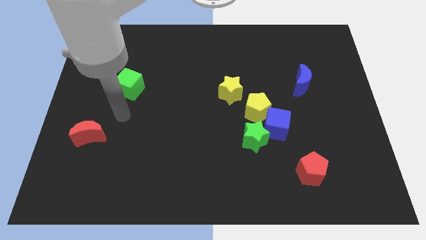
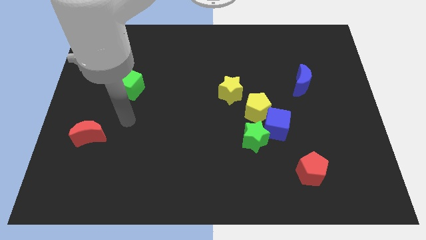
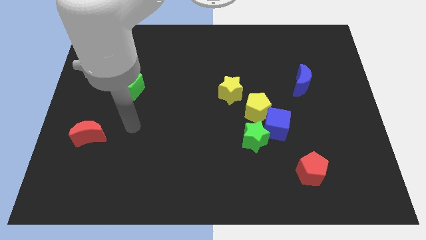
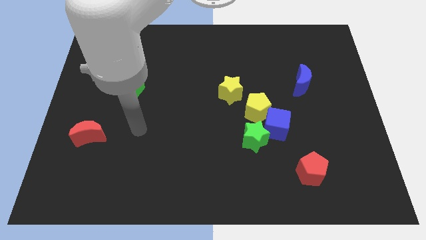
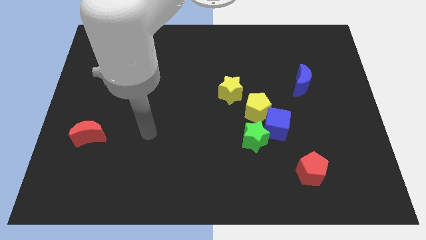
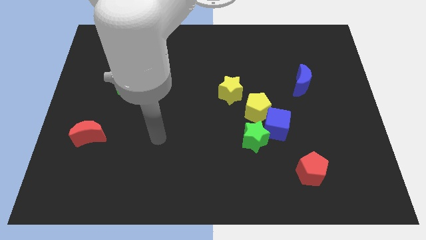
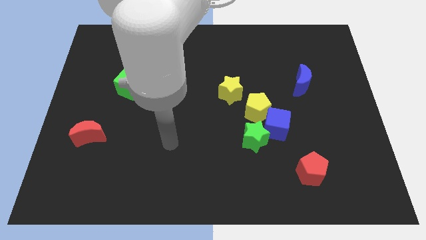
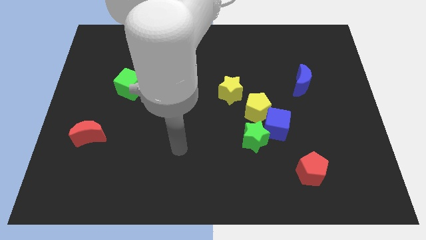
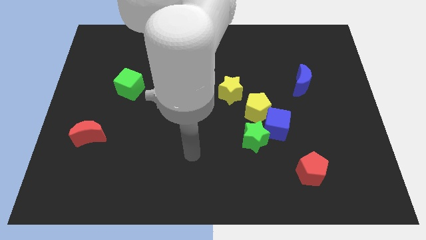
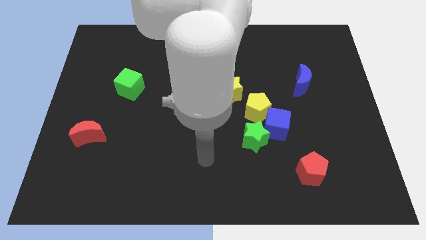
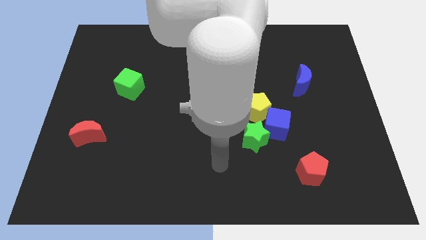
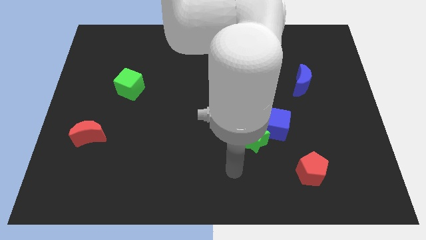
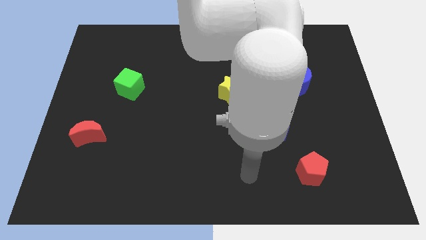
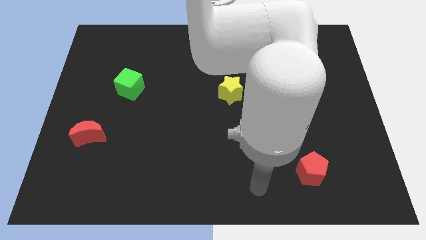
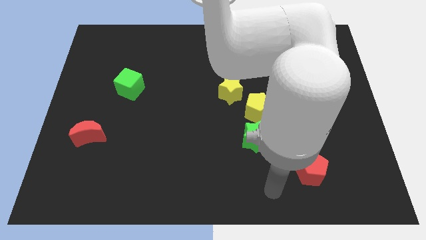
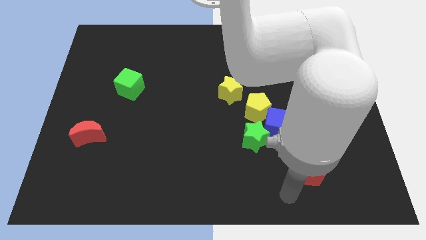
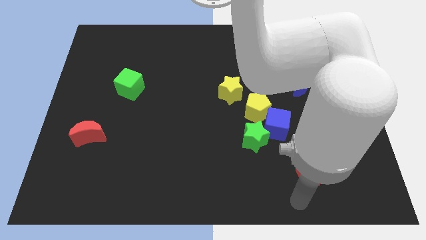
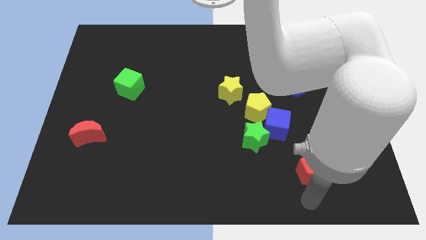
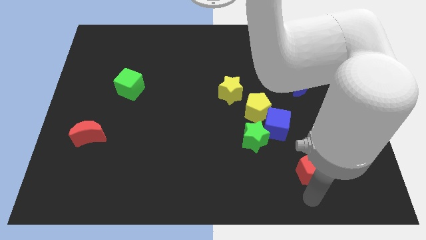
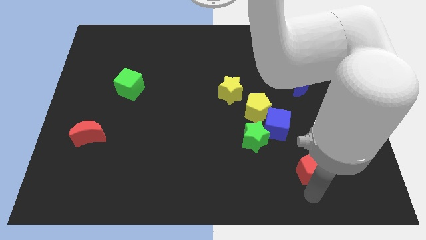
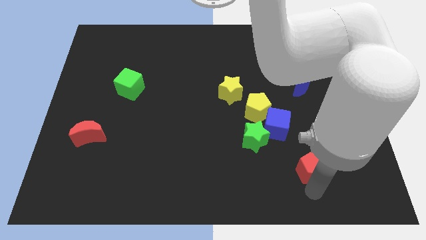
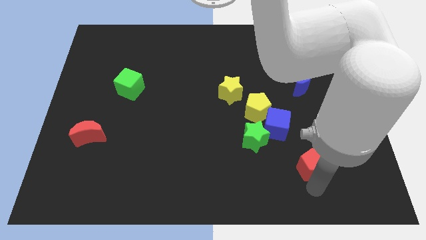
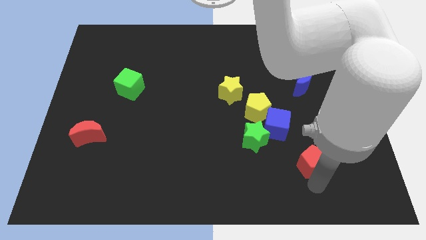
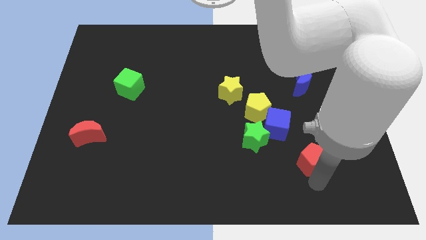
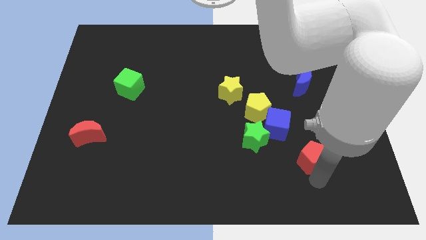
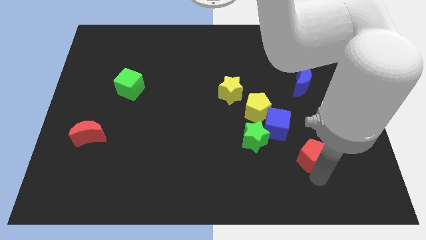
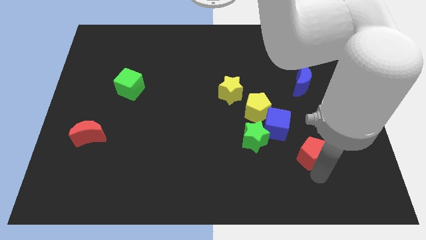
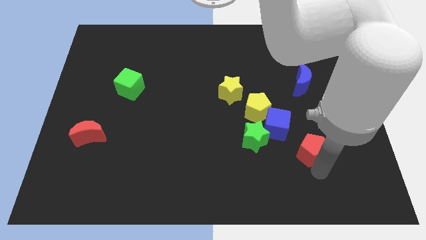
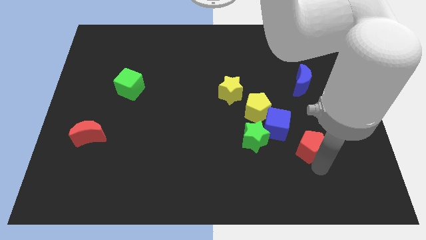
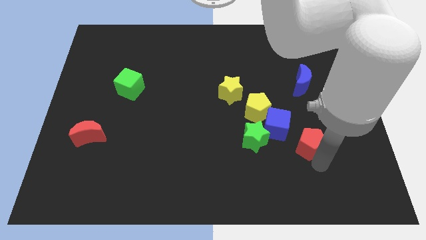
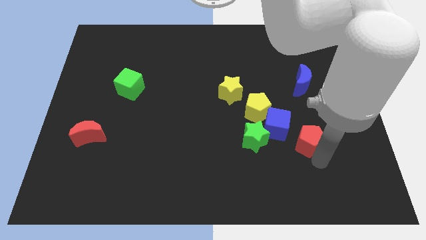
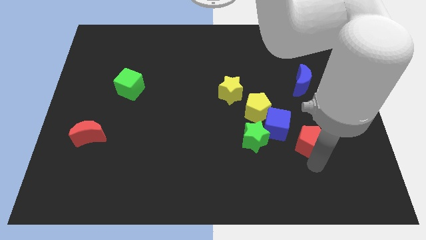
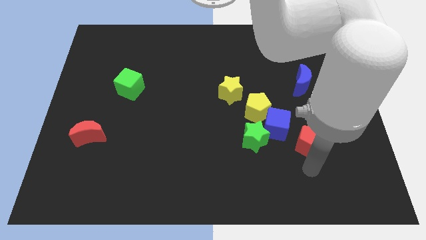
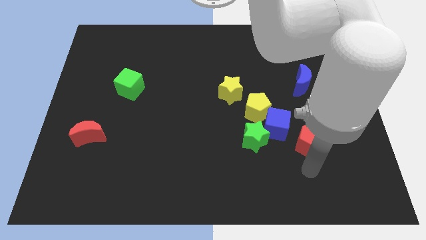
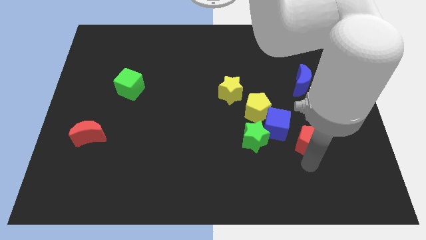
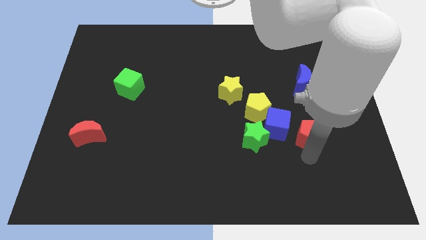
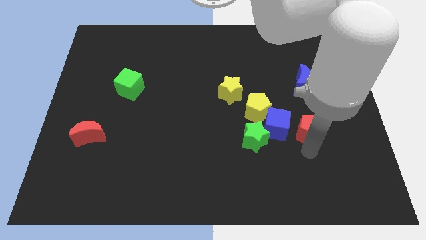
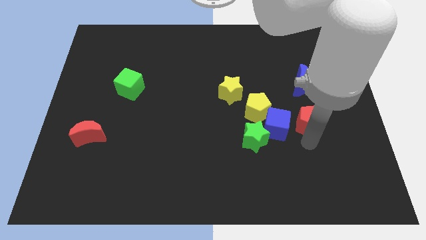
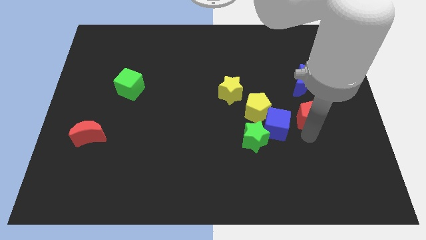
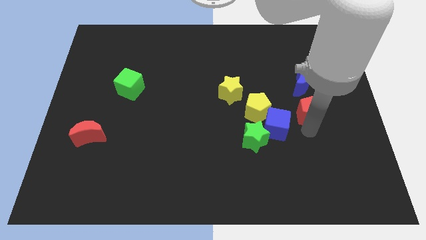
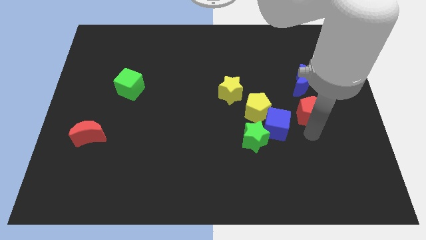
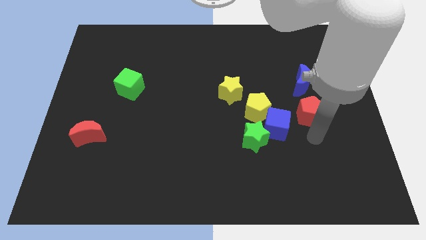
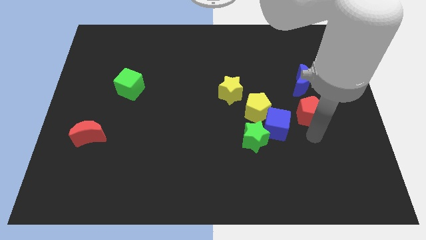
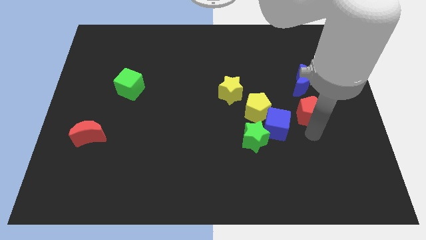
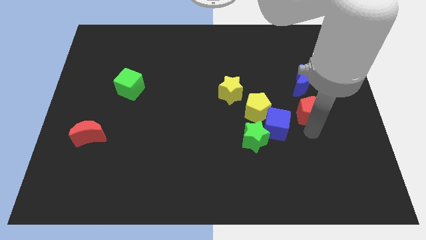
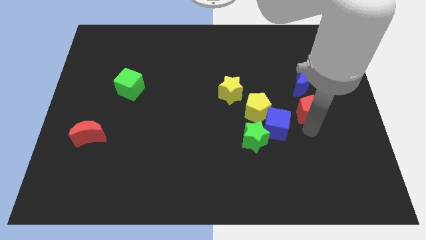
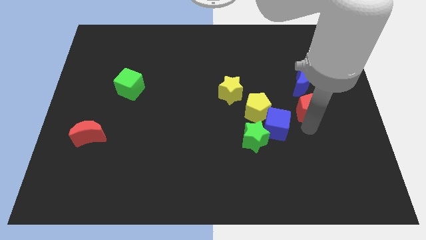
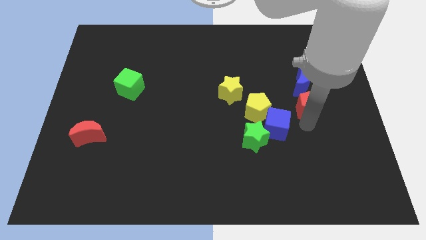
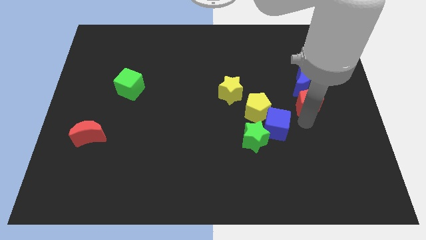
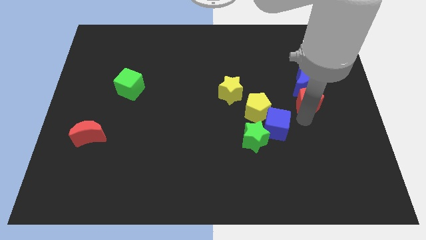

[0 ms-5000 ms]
slide the red pentagon to the blue moon

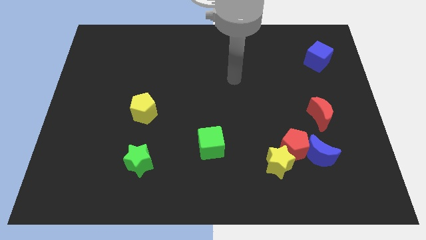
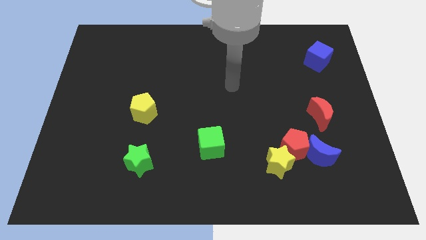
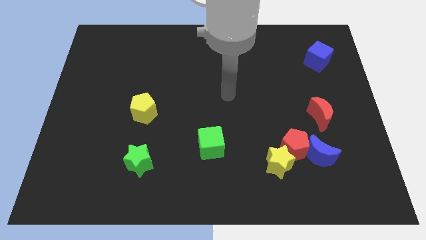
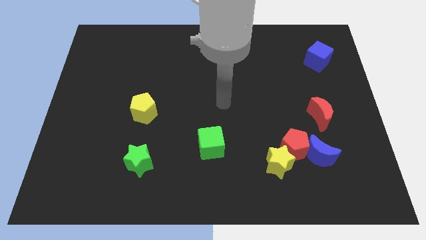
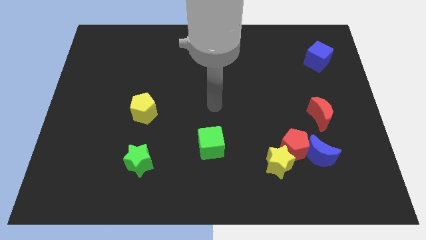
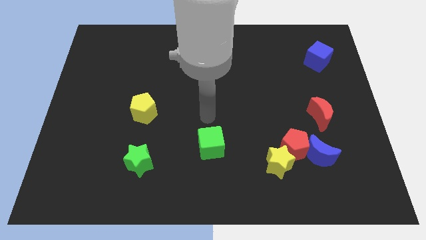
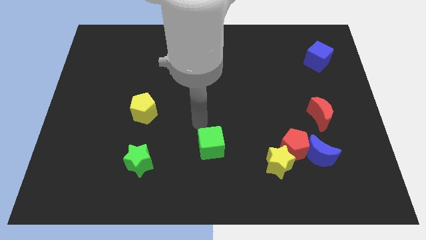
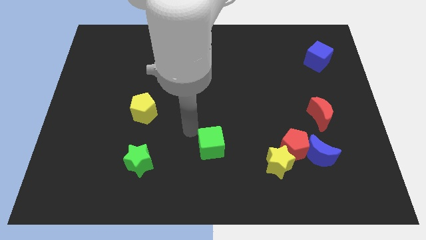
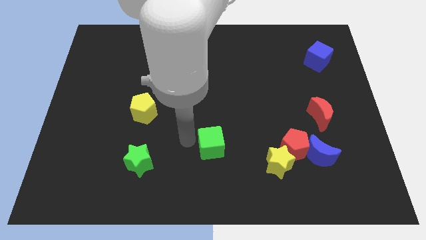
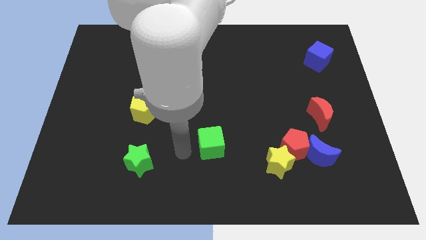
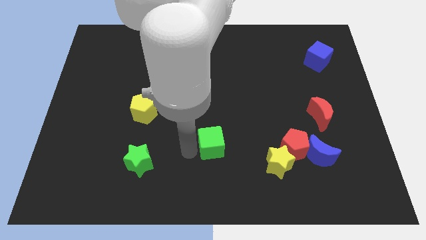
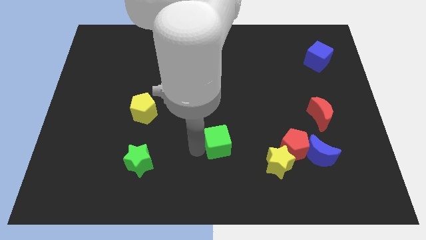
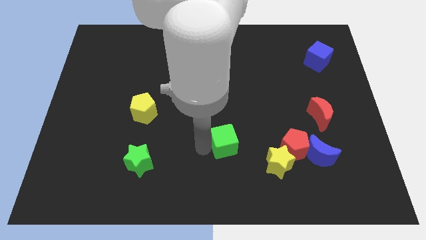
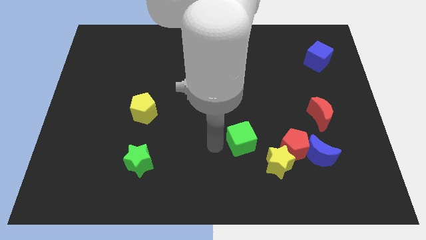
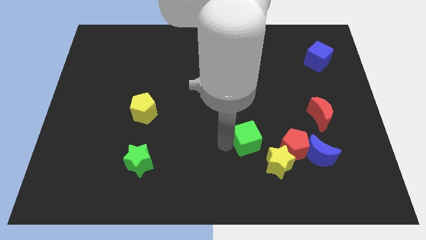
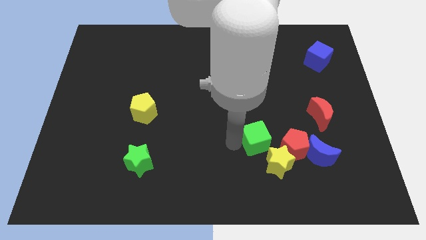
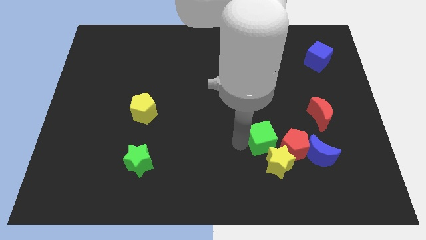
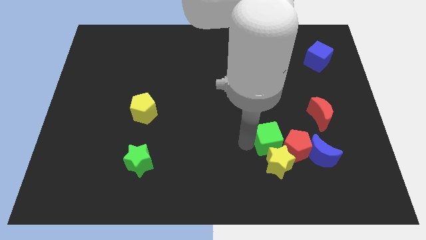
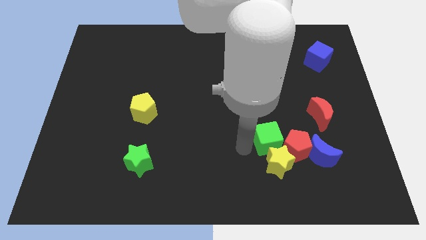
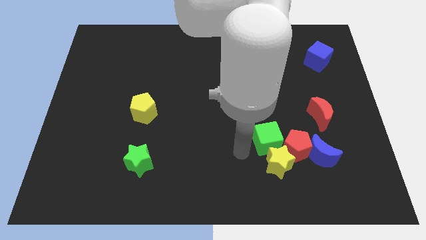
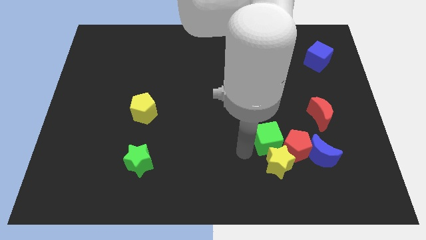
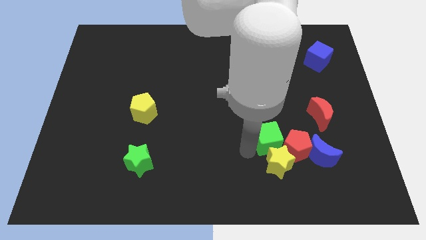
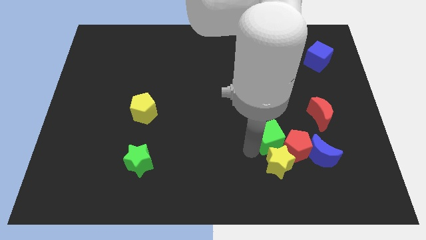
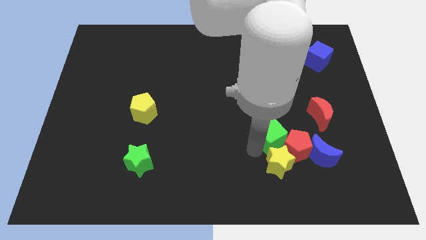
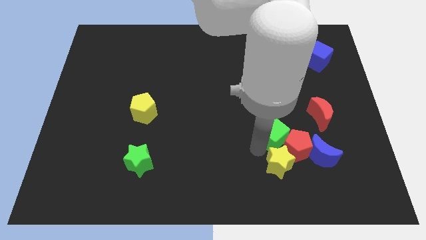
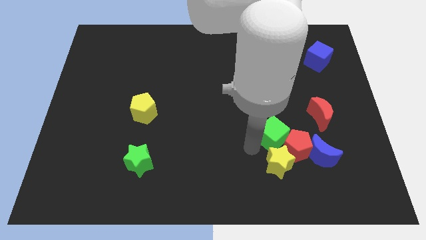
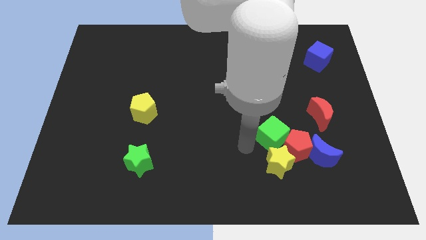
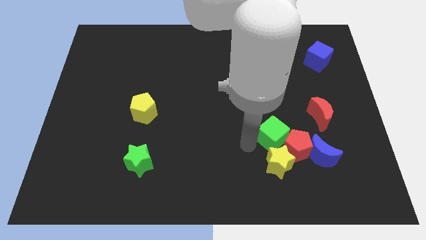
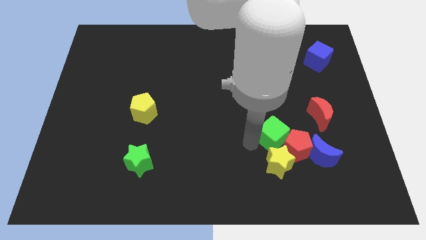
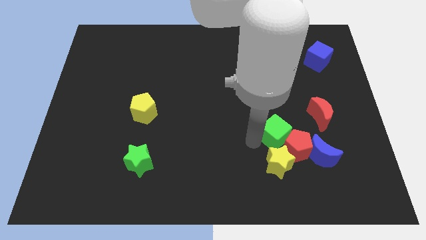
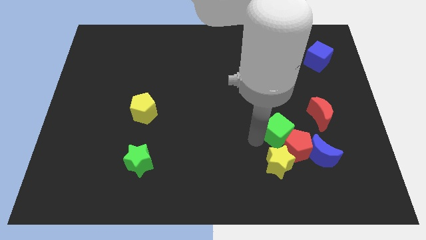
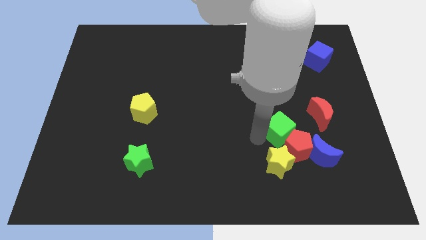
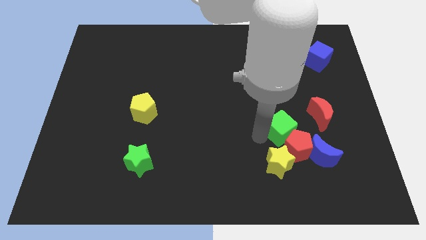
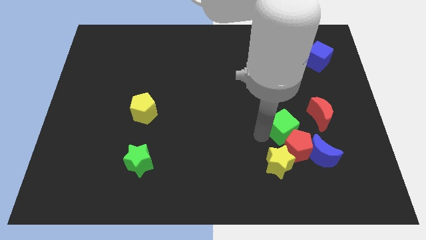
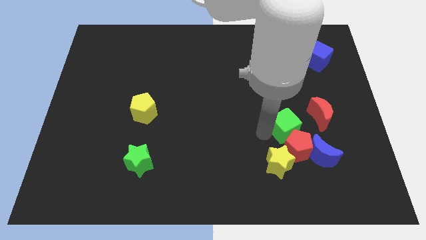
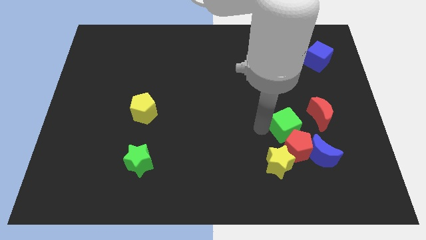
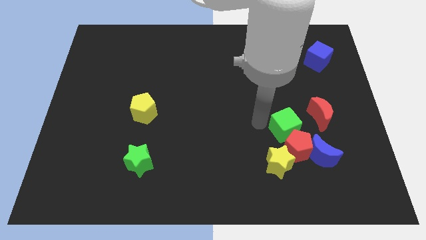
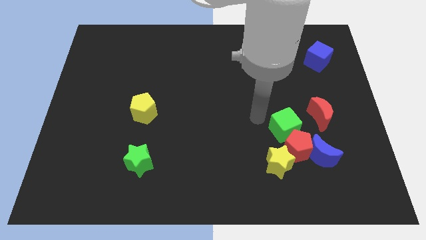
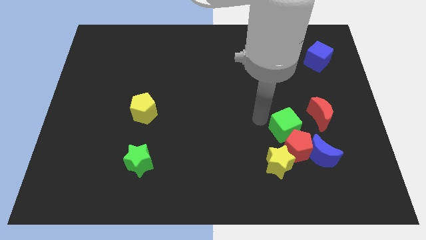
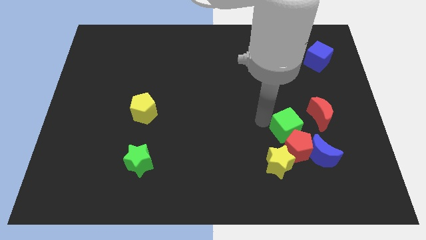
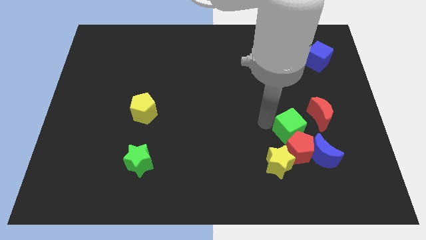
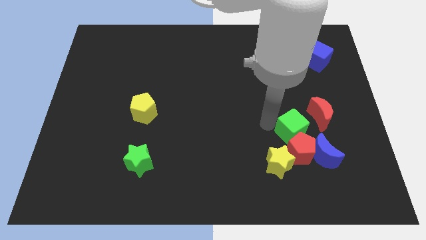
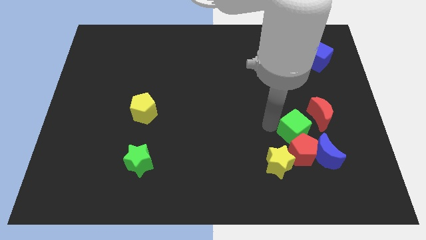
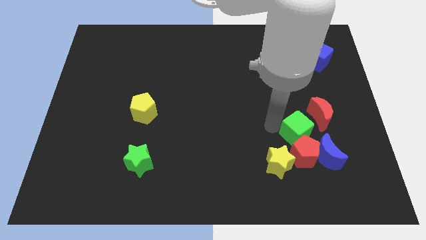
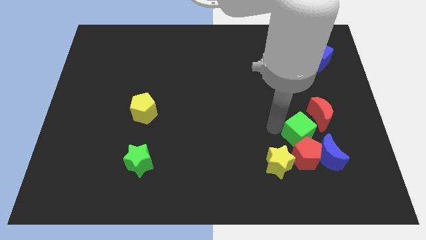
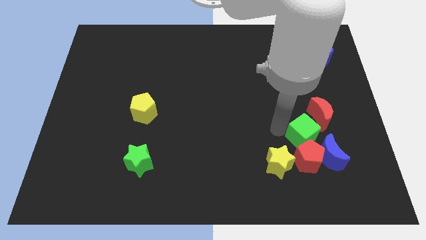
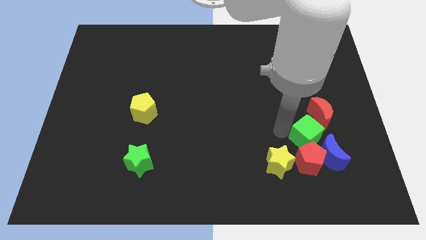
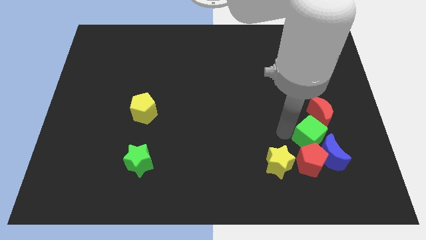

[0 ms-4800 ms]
push the green cube next to the blue moon
